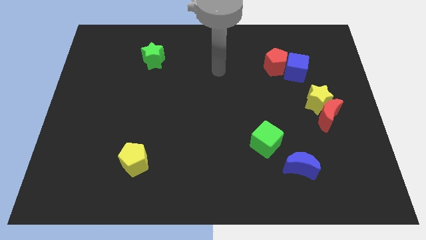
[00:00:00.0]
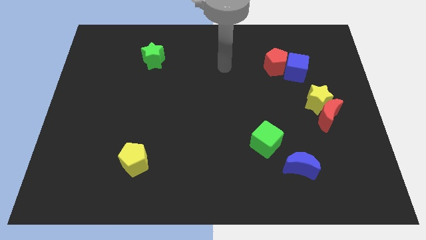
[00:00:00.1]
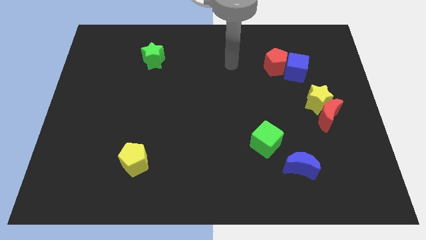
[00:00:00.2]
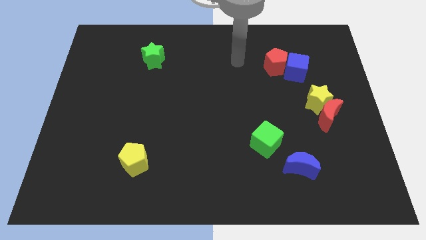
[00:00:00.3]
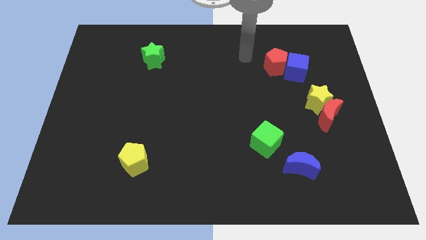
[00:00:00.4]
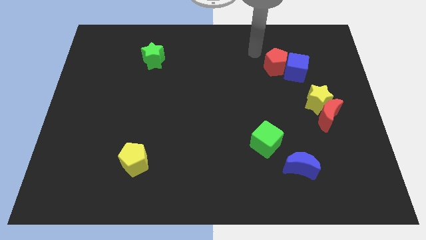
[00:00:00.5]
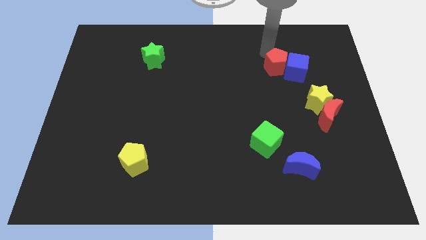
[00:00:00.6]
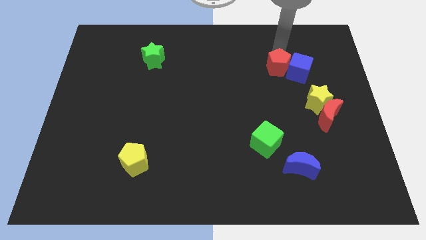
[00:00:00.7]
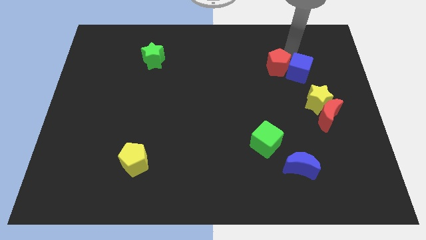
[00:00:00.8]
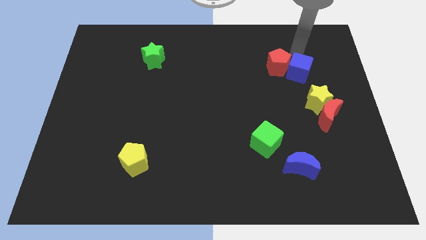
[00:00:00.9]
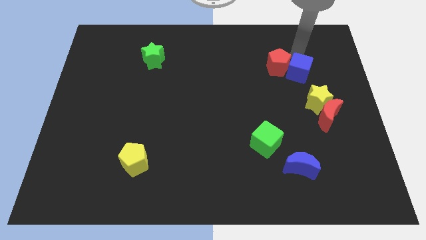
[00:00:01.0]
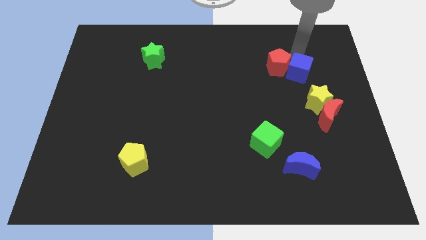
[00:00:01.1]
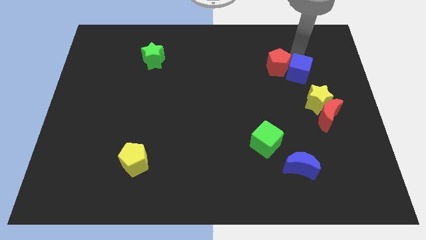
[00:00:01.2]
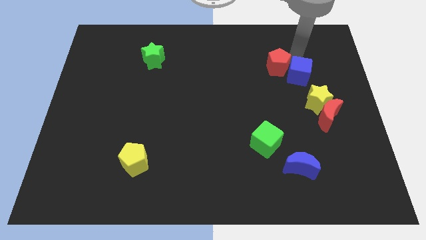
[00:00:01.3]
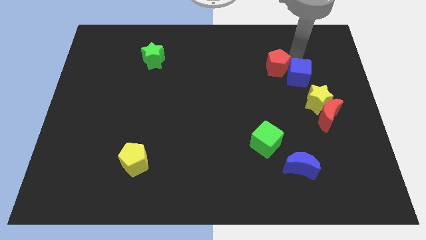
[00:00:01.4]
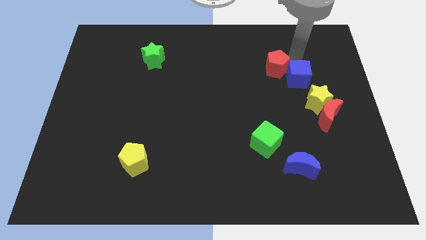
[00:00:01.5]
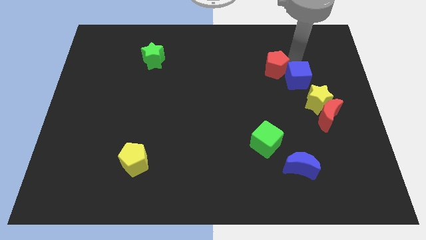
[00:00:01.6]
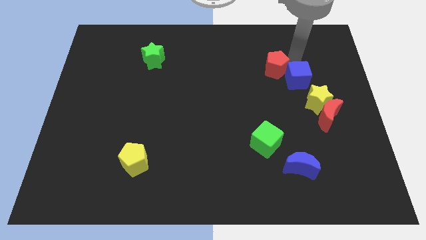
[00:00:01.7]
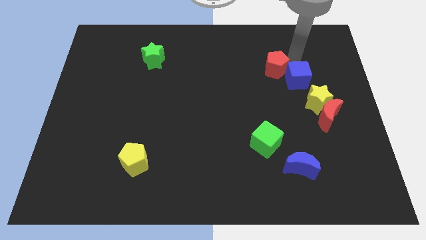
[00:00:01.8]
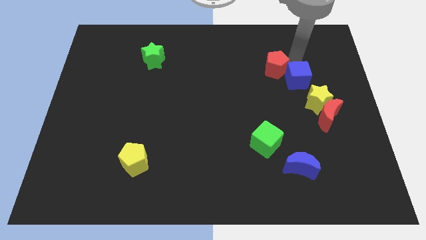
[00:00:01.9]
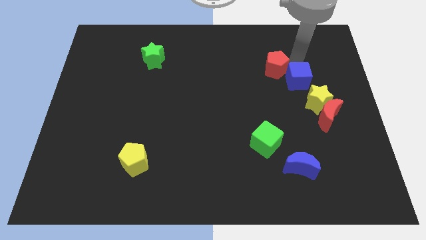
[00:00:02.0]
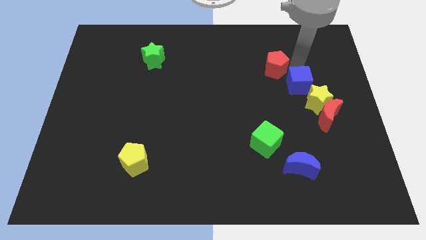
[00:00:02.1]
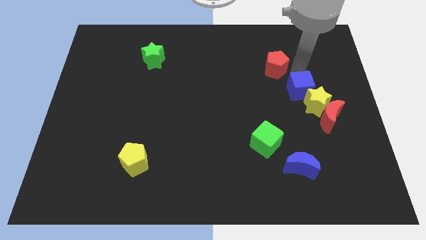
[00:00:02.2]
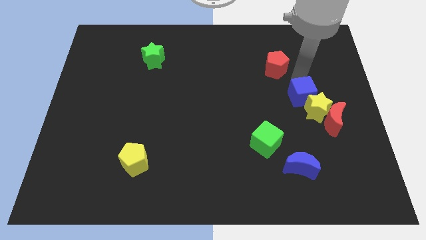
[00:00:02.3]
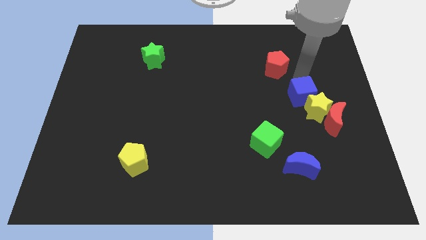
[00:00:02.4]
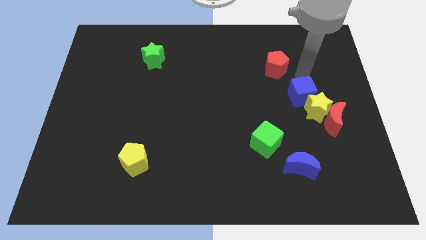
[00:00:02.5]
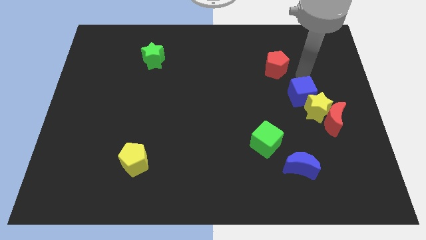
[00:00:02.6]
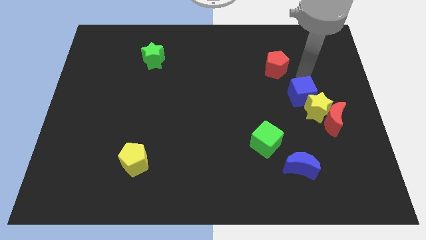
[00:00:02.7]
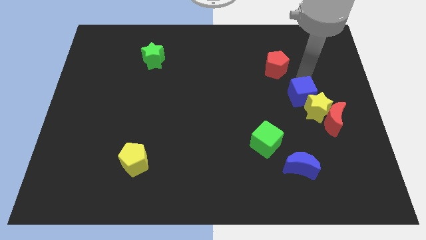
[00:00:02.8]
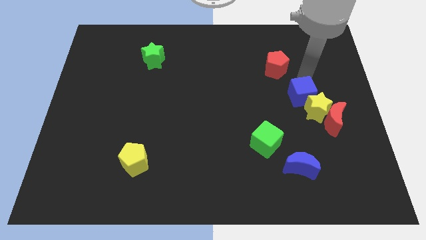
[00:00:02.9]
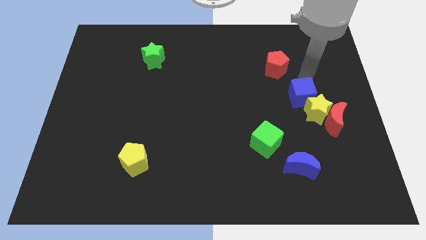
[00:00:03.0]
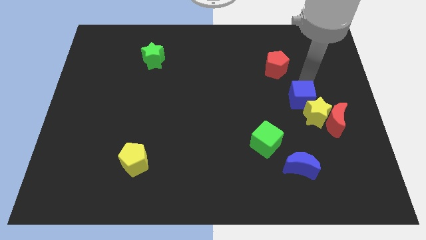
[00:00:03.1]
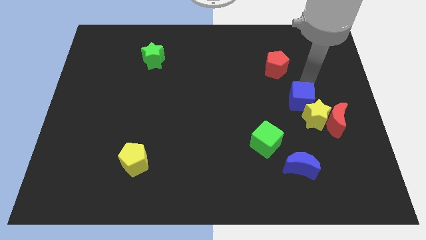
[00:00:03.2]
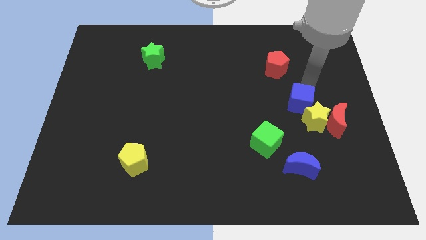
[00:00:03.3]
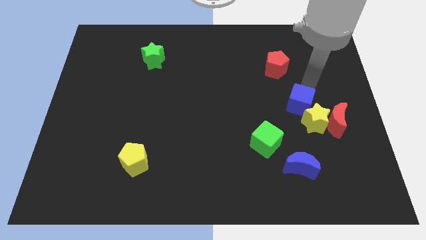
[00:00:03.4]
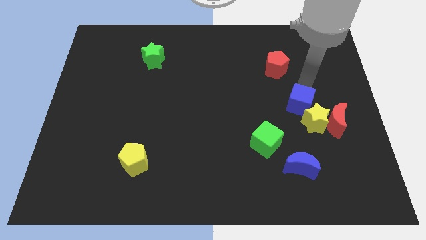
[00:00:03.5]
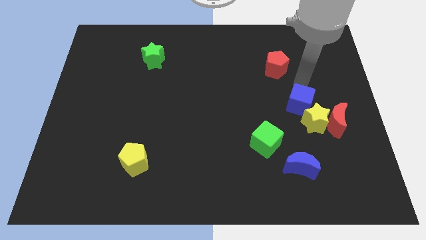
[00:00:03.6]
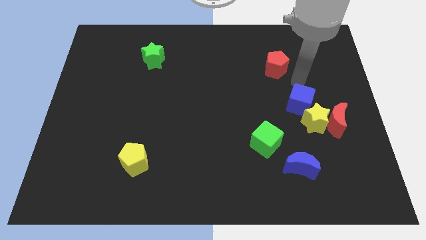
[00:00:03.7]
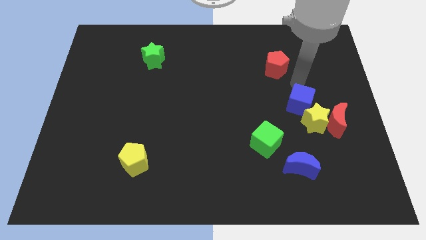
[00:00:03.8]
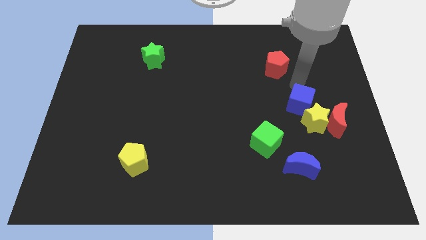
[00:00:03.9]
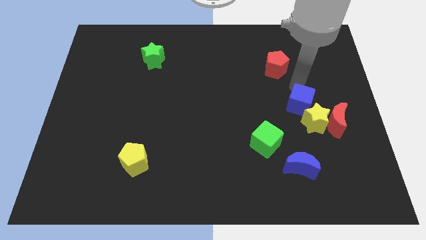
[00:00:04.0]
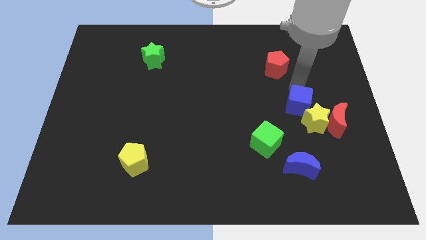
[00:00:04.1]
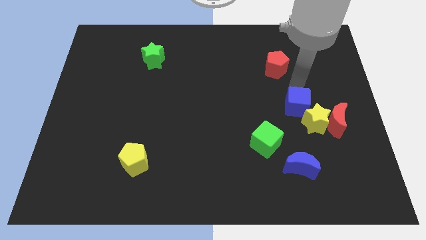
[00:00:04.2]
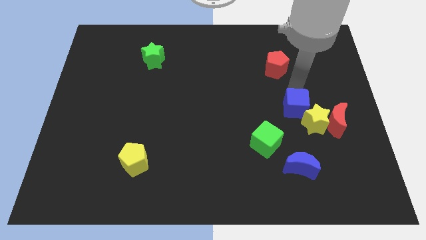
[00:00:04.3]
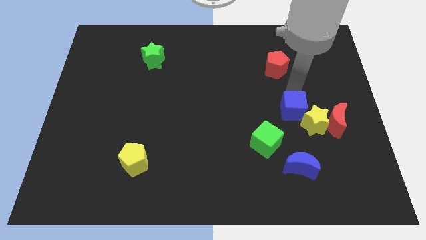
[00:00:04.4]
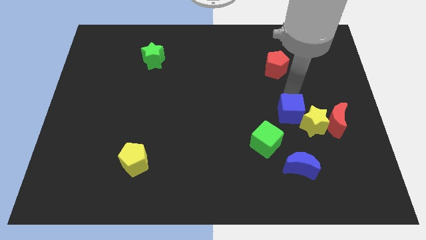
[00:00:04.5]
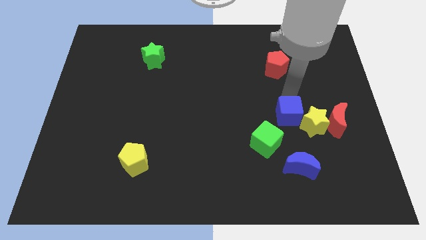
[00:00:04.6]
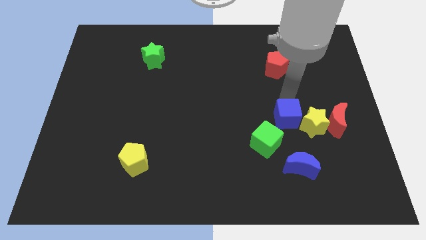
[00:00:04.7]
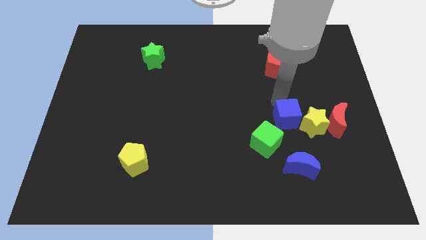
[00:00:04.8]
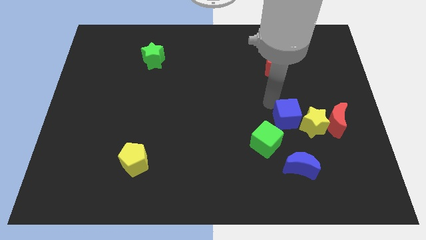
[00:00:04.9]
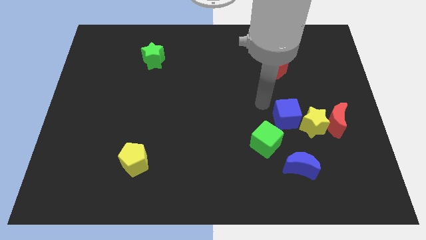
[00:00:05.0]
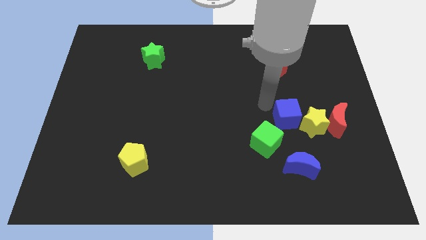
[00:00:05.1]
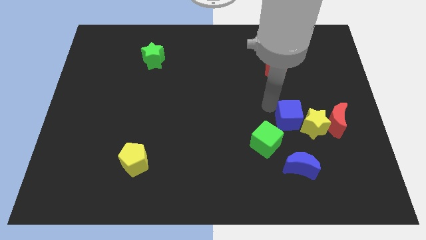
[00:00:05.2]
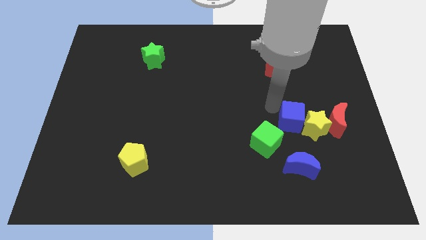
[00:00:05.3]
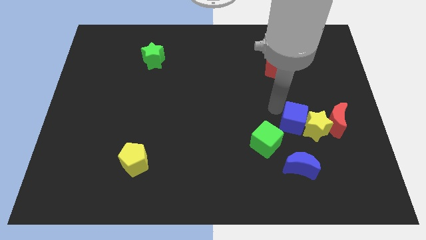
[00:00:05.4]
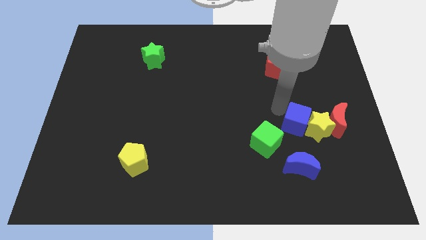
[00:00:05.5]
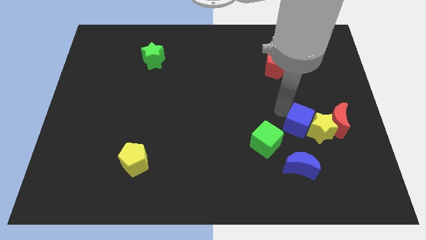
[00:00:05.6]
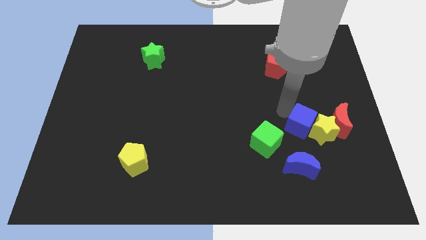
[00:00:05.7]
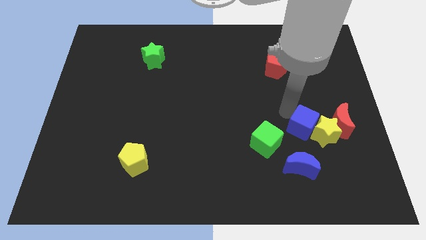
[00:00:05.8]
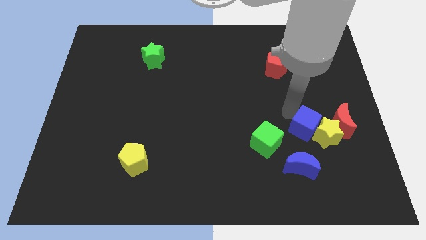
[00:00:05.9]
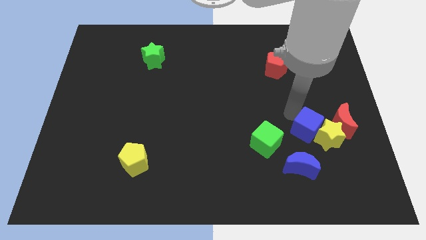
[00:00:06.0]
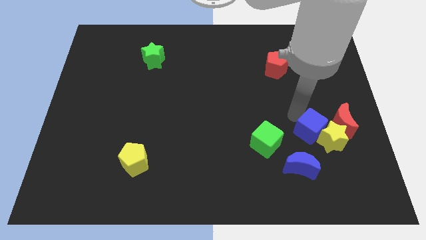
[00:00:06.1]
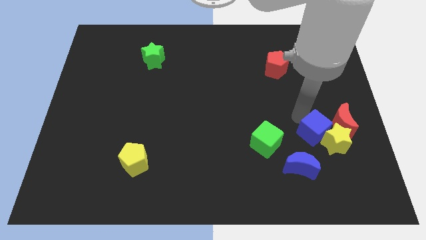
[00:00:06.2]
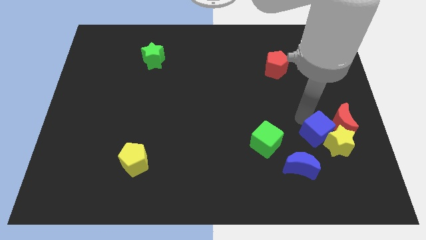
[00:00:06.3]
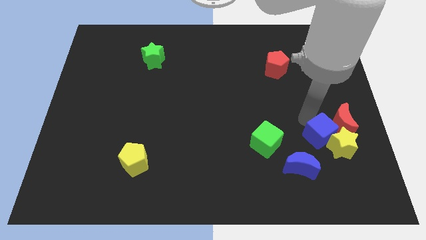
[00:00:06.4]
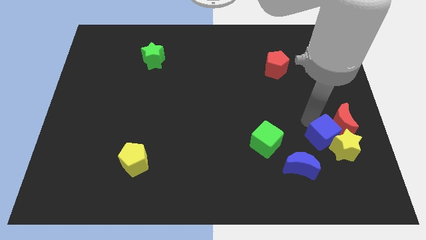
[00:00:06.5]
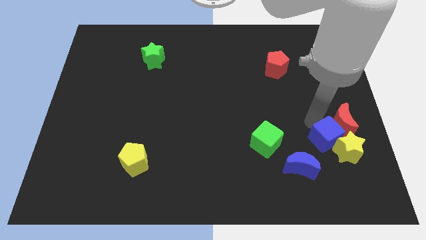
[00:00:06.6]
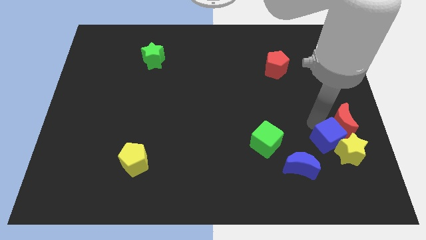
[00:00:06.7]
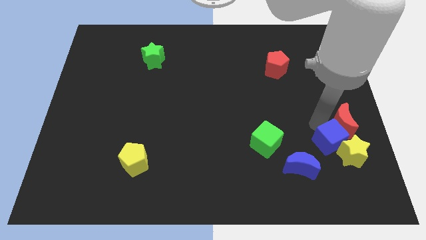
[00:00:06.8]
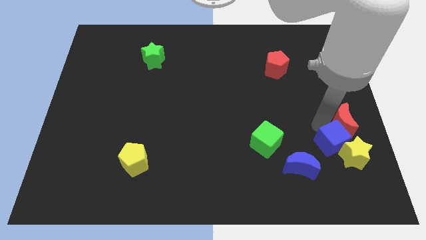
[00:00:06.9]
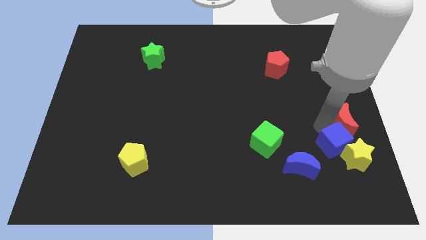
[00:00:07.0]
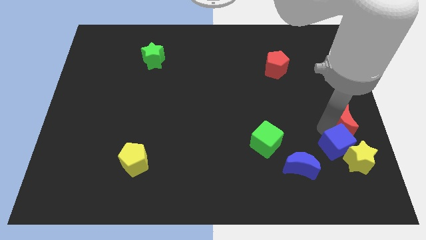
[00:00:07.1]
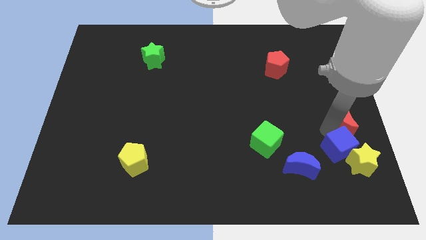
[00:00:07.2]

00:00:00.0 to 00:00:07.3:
slide the blue cube just right of the blue moon

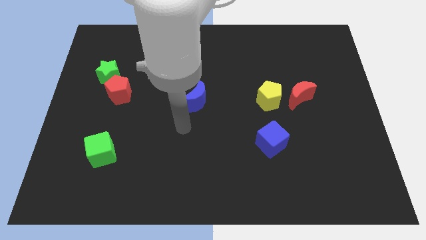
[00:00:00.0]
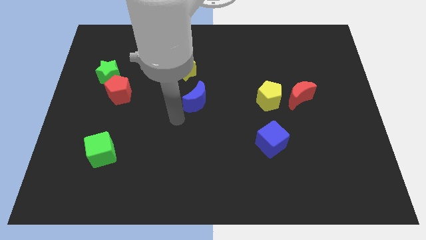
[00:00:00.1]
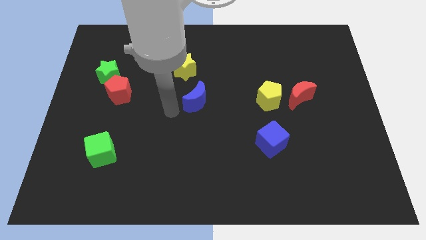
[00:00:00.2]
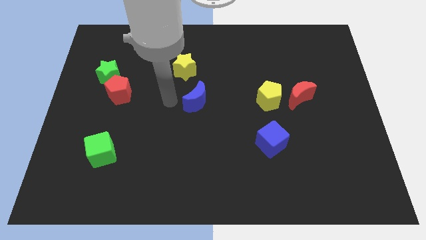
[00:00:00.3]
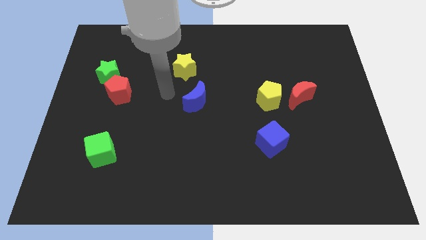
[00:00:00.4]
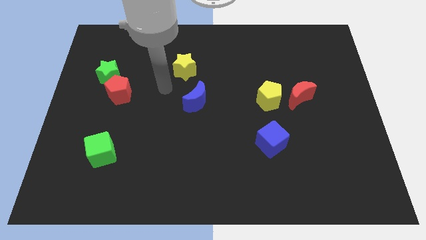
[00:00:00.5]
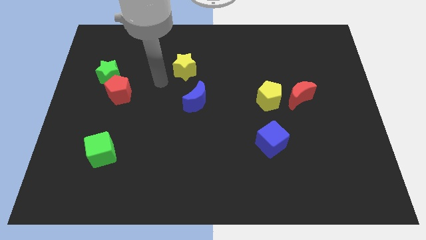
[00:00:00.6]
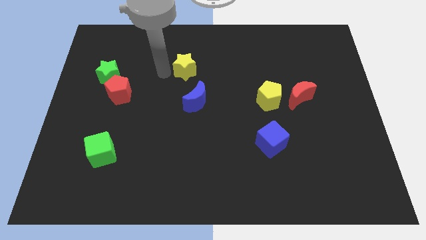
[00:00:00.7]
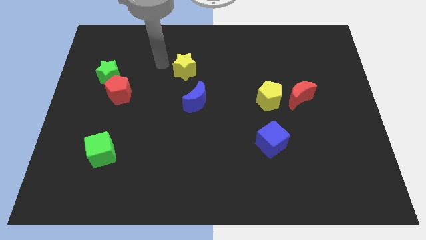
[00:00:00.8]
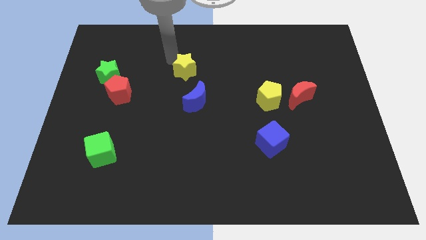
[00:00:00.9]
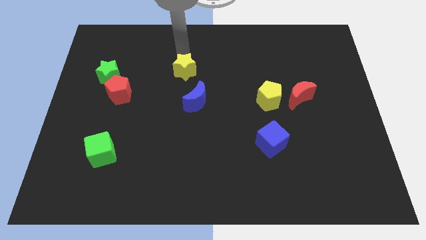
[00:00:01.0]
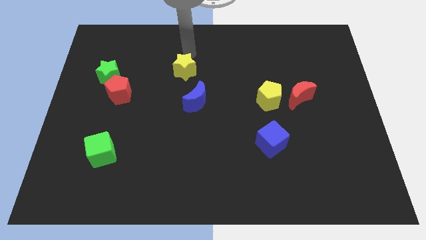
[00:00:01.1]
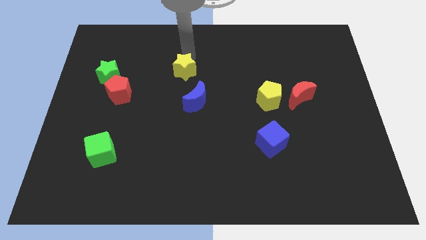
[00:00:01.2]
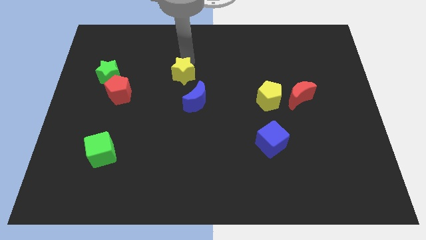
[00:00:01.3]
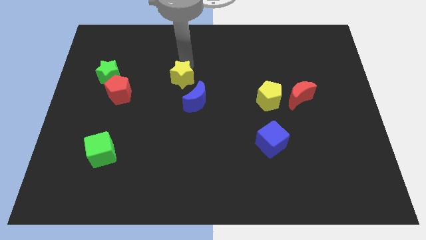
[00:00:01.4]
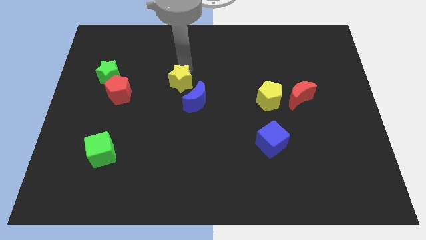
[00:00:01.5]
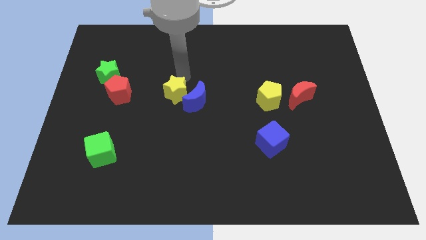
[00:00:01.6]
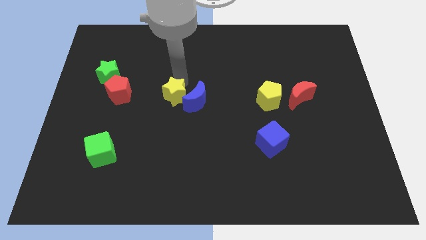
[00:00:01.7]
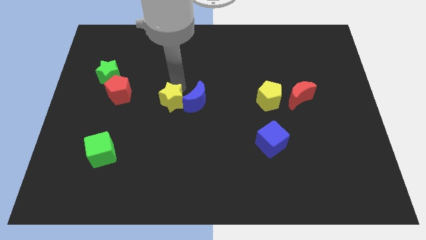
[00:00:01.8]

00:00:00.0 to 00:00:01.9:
move the yellow star to the bottom left of the blue moon
